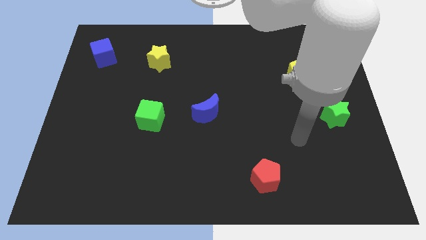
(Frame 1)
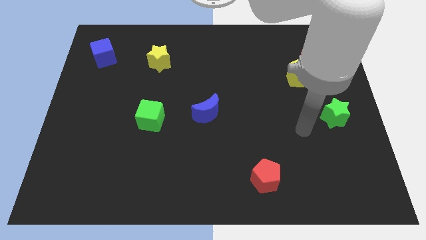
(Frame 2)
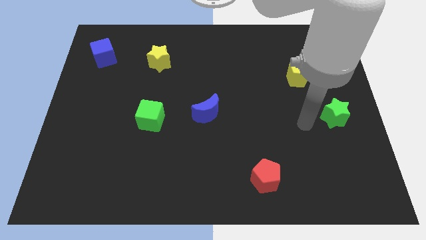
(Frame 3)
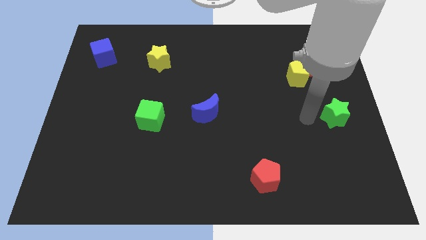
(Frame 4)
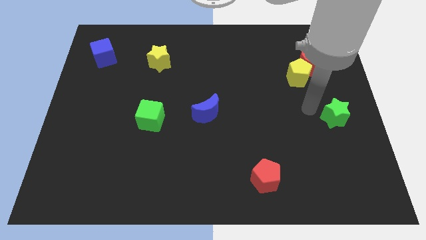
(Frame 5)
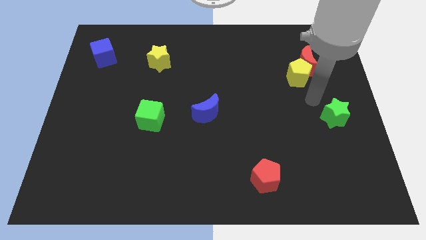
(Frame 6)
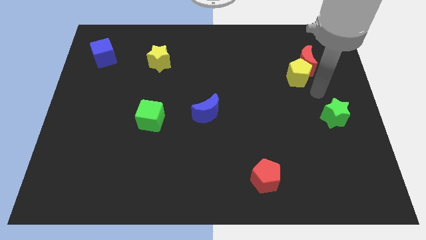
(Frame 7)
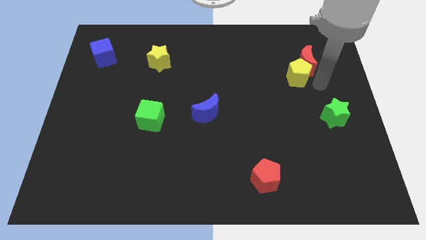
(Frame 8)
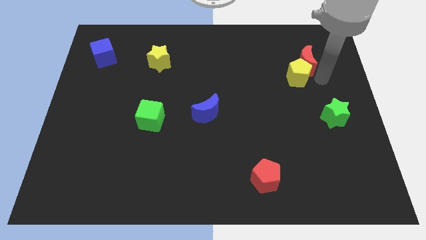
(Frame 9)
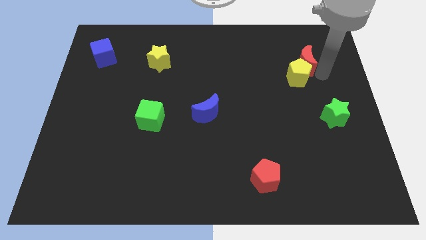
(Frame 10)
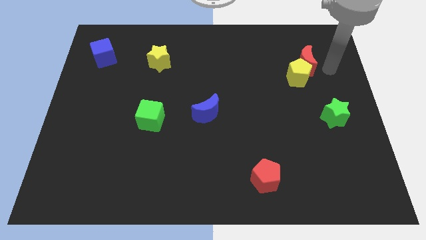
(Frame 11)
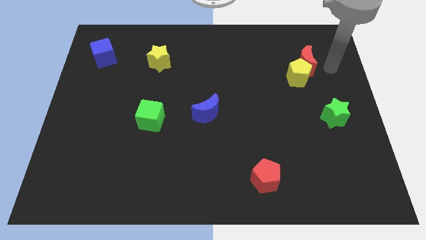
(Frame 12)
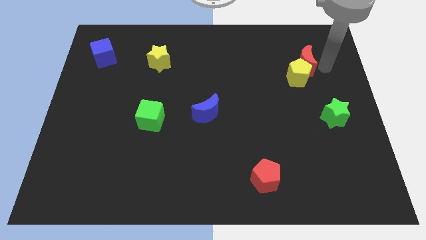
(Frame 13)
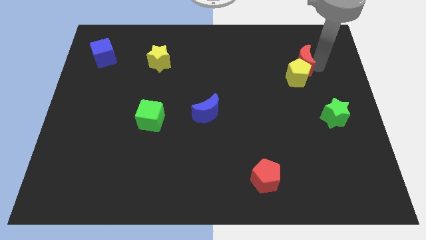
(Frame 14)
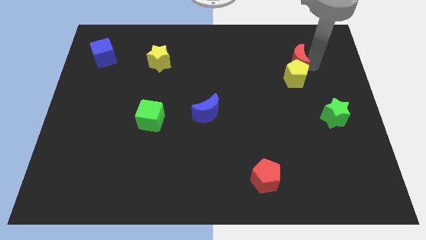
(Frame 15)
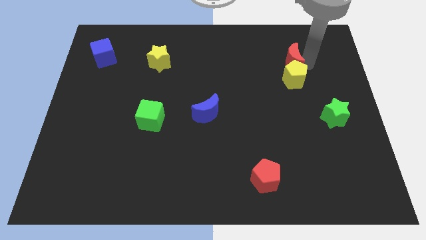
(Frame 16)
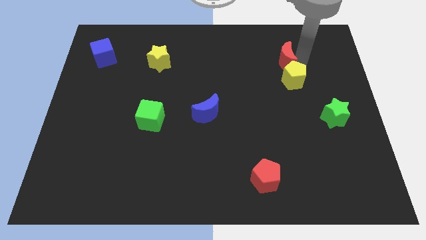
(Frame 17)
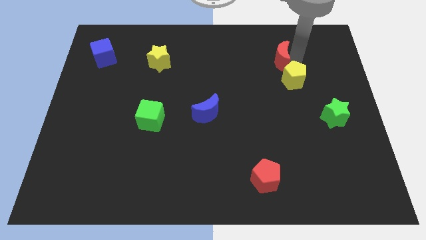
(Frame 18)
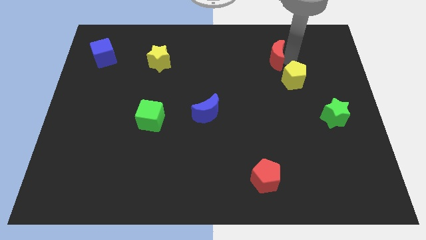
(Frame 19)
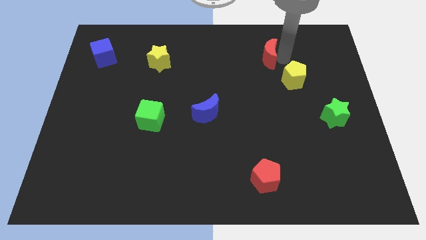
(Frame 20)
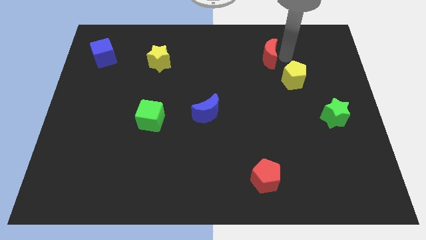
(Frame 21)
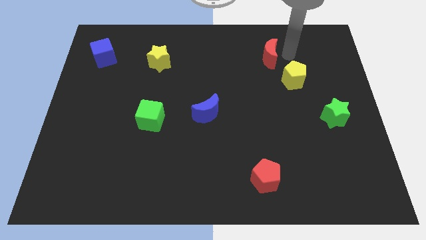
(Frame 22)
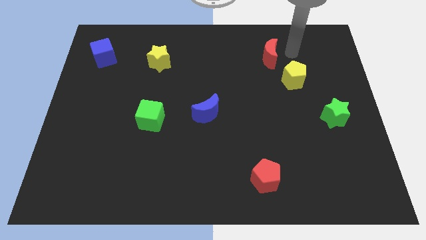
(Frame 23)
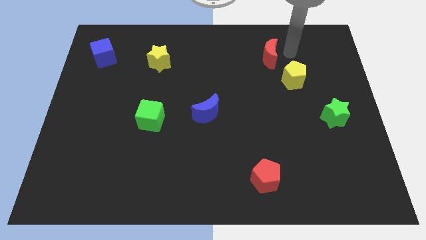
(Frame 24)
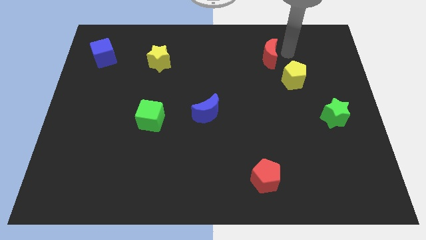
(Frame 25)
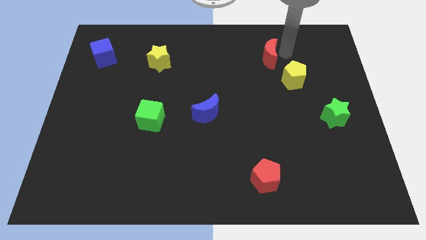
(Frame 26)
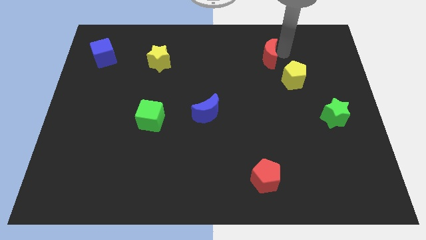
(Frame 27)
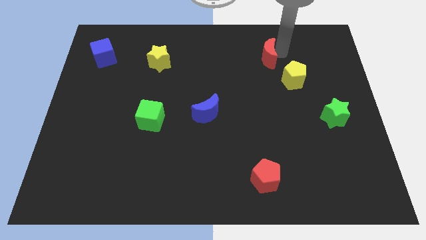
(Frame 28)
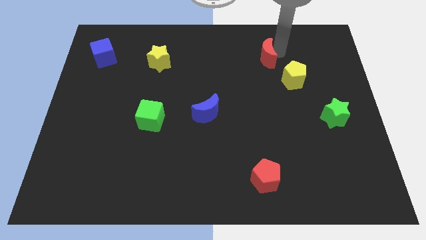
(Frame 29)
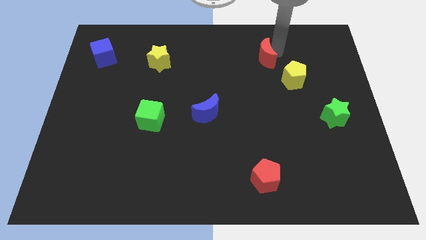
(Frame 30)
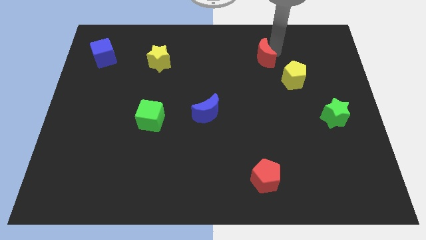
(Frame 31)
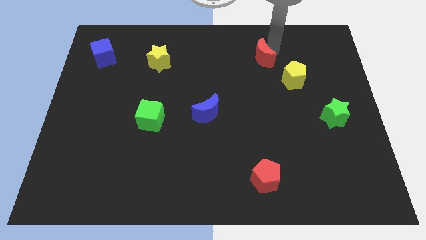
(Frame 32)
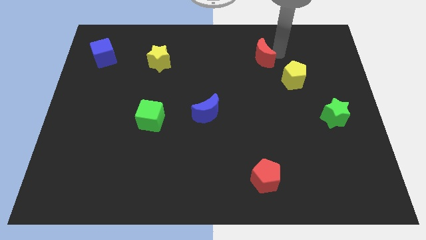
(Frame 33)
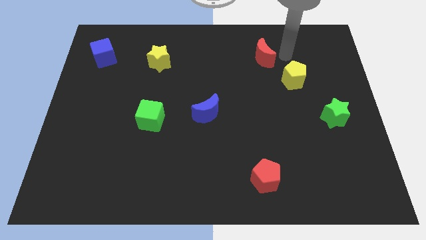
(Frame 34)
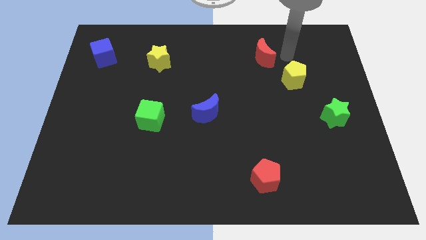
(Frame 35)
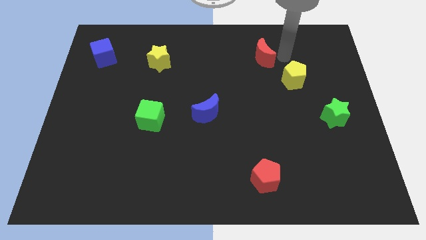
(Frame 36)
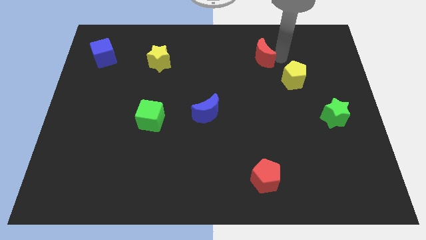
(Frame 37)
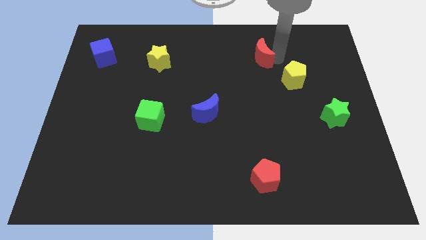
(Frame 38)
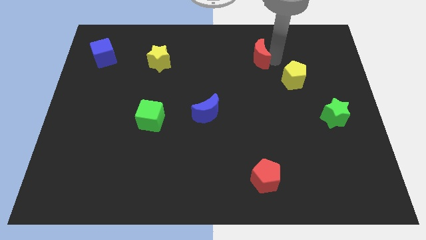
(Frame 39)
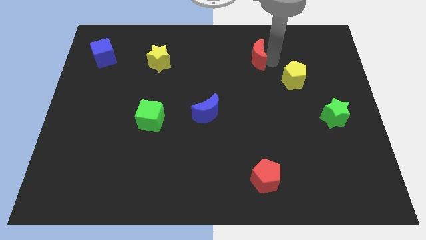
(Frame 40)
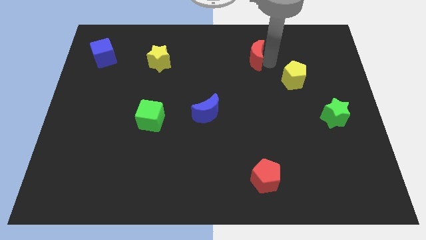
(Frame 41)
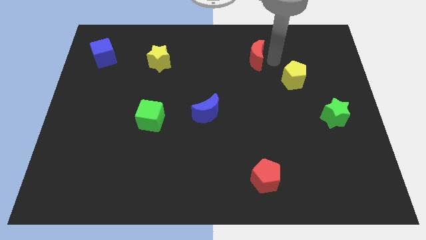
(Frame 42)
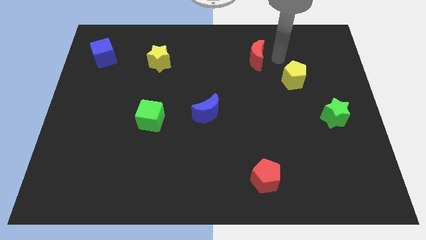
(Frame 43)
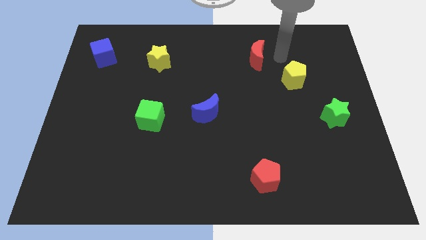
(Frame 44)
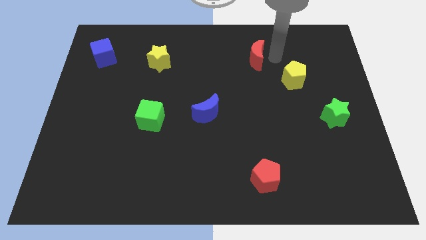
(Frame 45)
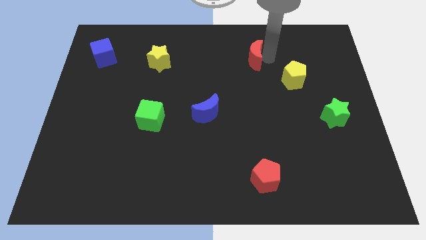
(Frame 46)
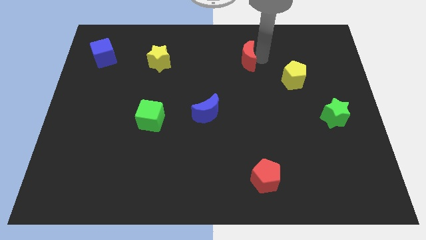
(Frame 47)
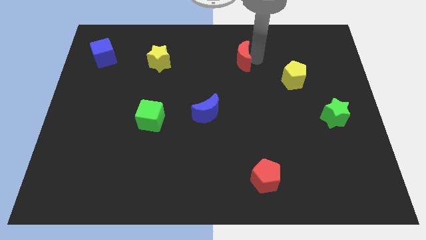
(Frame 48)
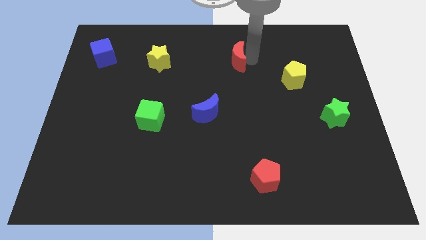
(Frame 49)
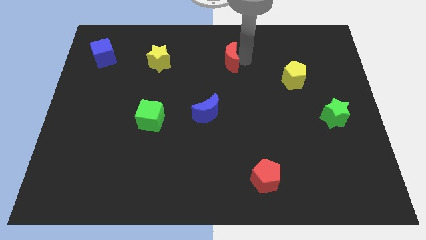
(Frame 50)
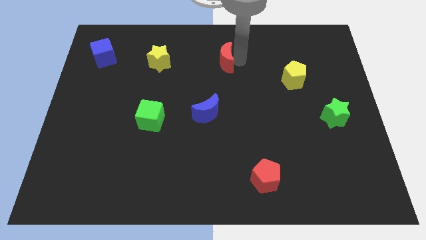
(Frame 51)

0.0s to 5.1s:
move the red moon left

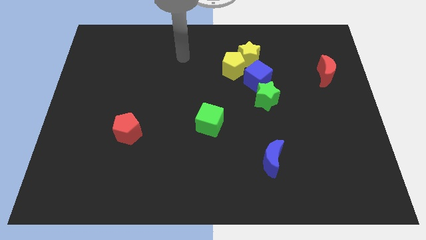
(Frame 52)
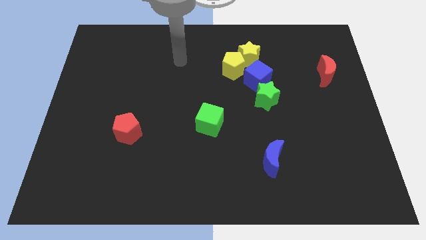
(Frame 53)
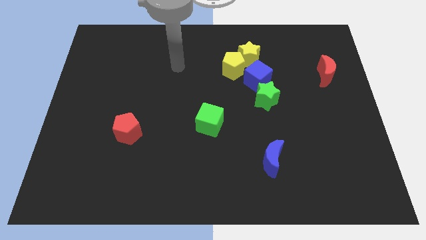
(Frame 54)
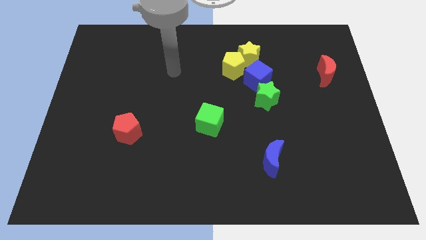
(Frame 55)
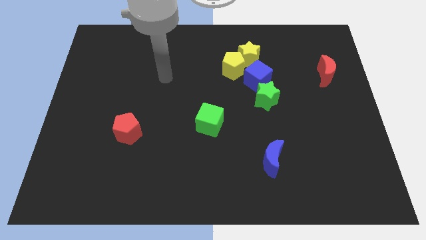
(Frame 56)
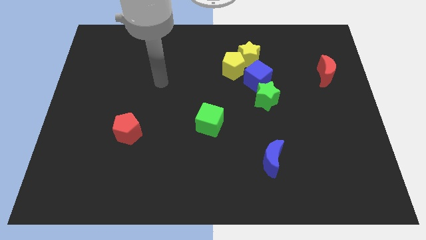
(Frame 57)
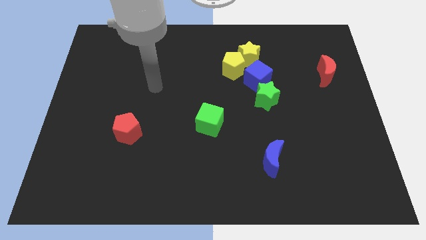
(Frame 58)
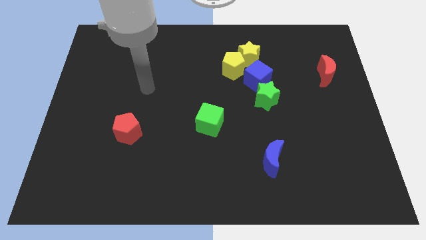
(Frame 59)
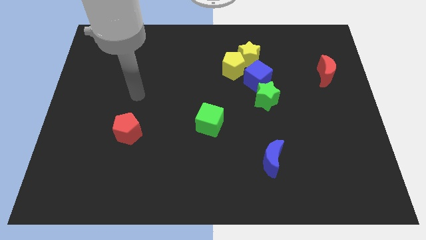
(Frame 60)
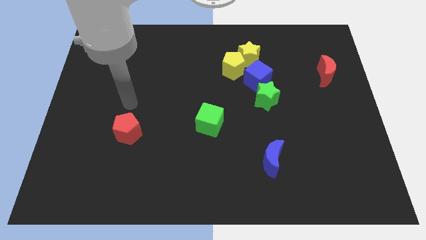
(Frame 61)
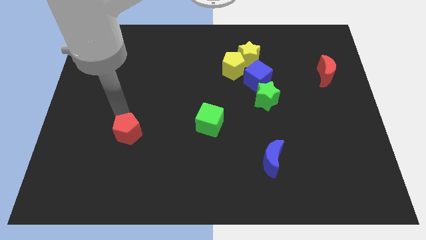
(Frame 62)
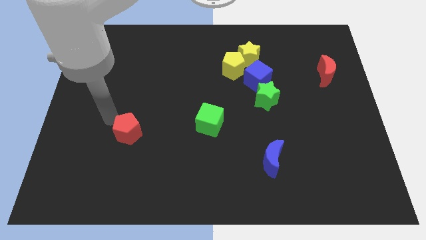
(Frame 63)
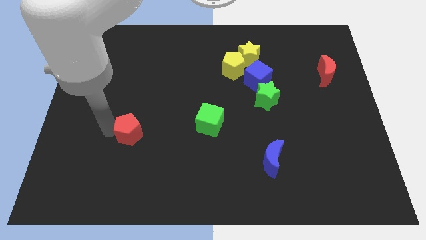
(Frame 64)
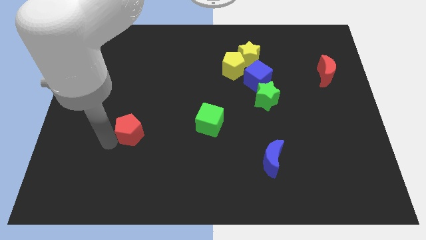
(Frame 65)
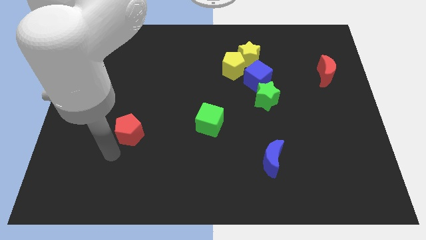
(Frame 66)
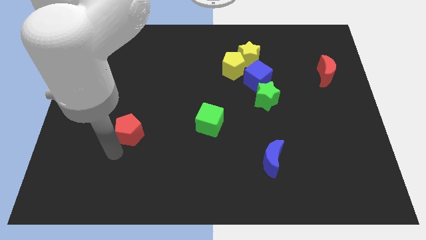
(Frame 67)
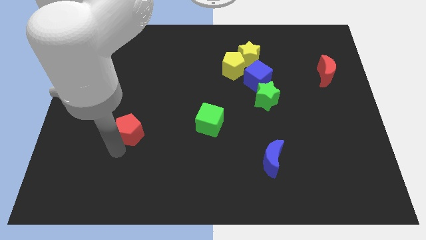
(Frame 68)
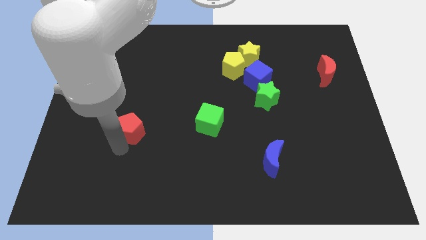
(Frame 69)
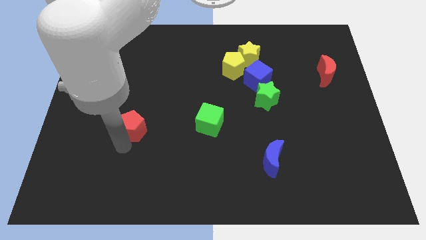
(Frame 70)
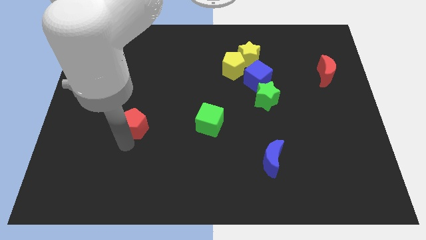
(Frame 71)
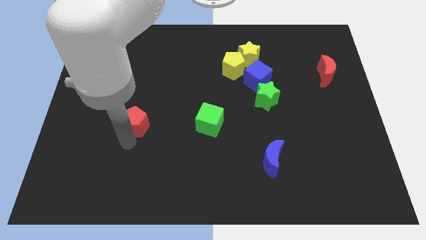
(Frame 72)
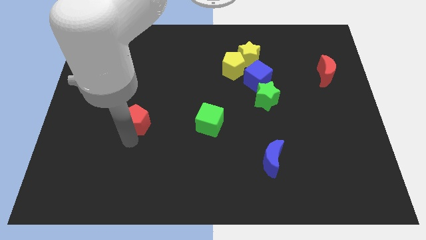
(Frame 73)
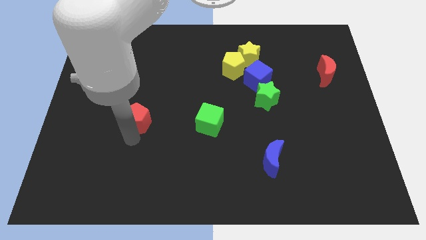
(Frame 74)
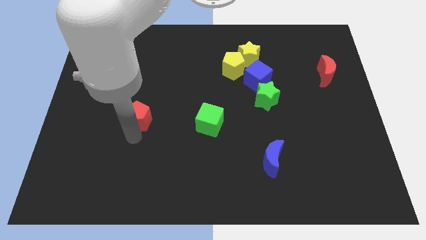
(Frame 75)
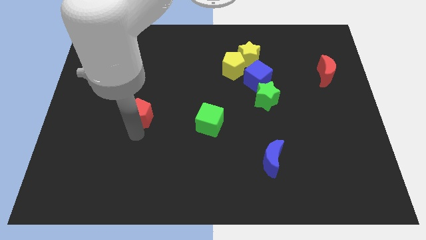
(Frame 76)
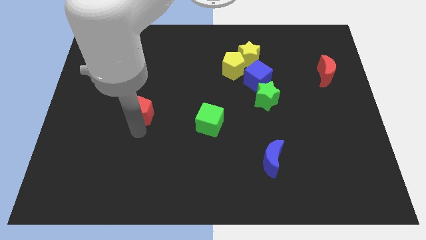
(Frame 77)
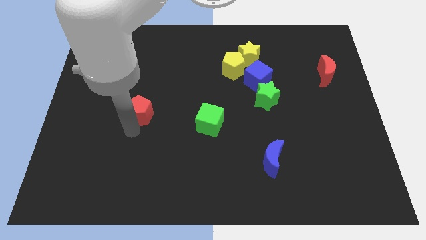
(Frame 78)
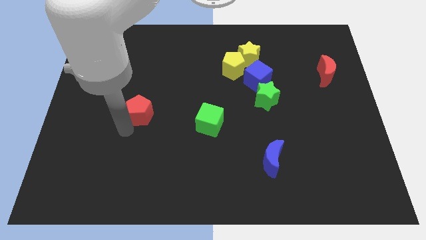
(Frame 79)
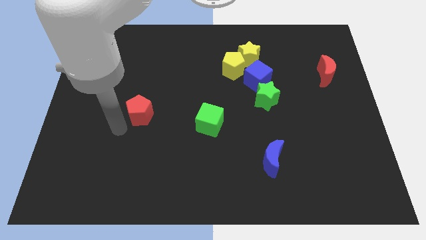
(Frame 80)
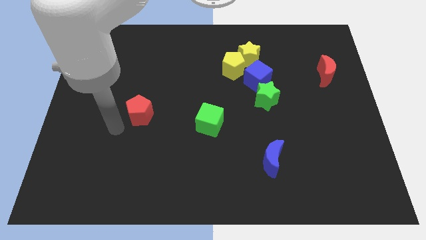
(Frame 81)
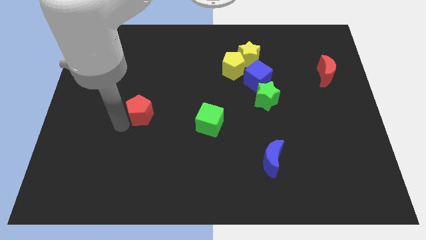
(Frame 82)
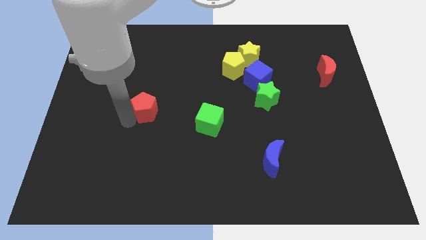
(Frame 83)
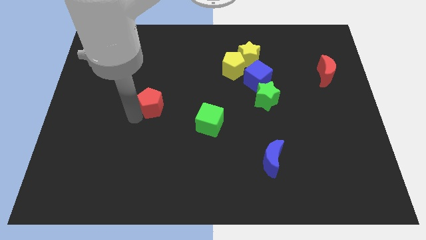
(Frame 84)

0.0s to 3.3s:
slightly push the red pentagon up and then to the right
